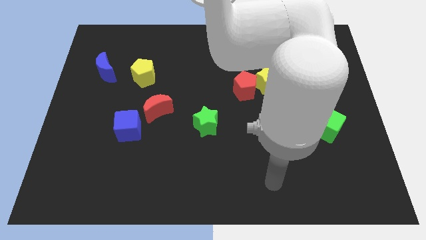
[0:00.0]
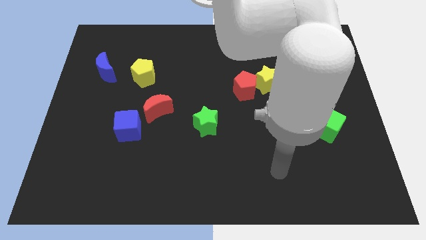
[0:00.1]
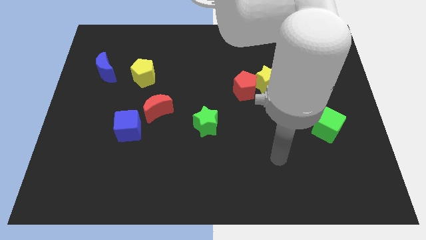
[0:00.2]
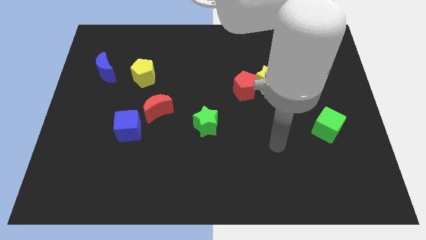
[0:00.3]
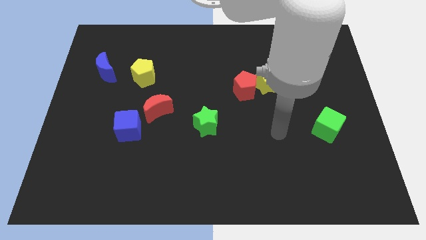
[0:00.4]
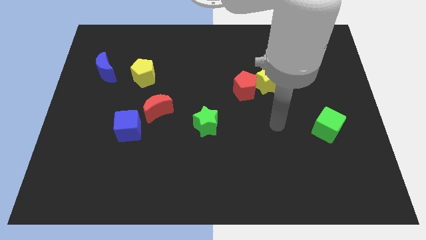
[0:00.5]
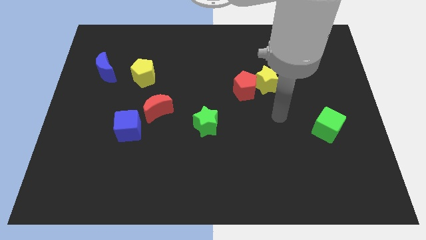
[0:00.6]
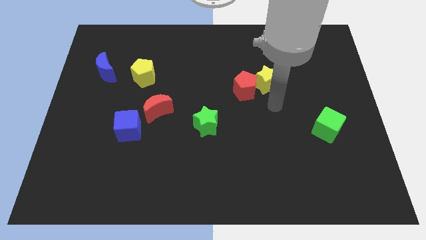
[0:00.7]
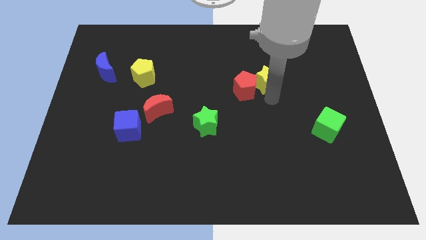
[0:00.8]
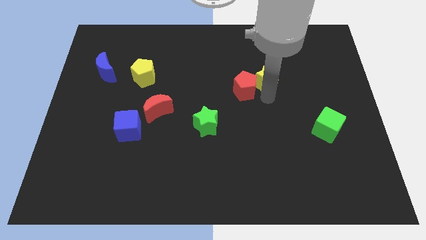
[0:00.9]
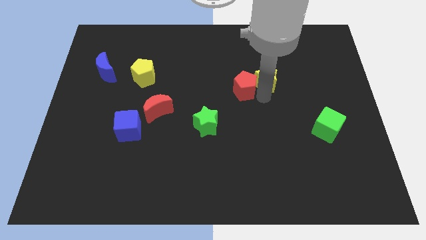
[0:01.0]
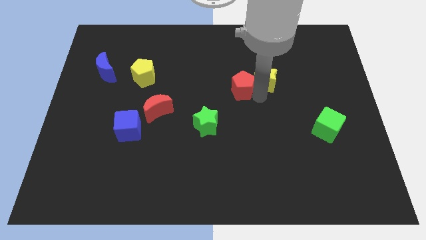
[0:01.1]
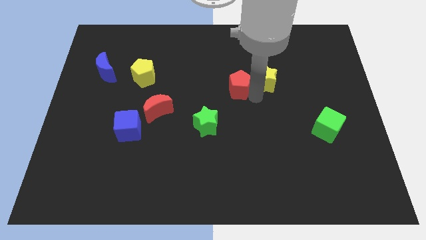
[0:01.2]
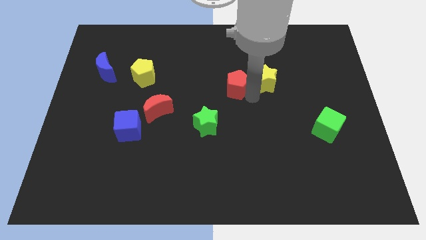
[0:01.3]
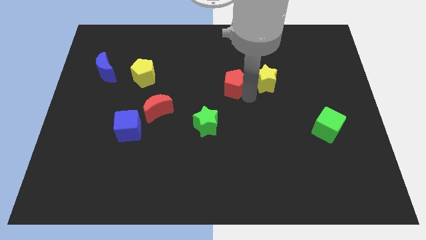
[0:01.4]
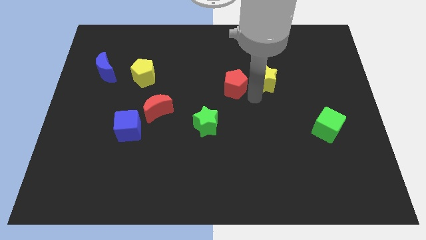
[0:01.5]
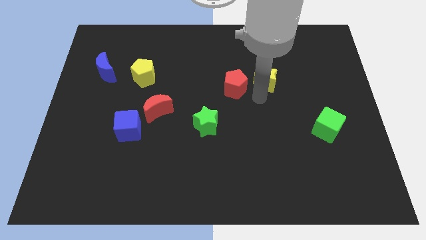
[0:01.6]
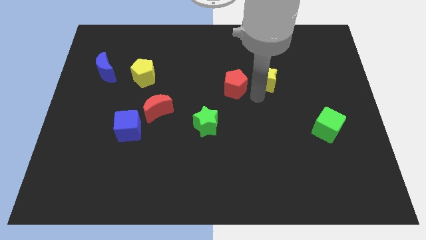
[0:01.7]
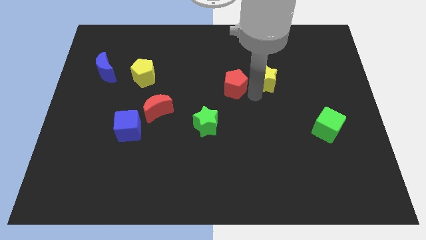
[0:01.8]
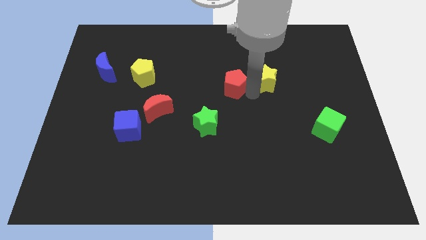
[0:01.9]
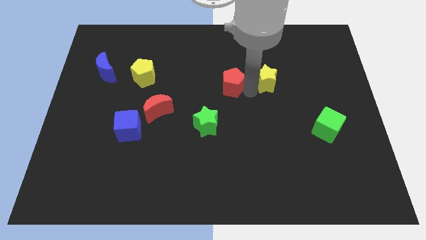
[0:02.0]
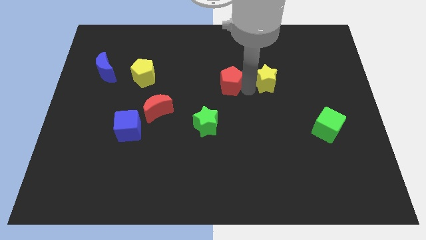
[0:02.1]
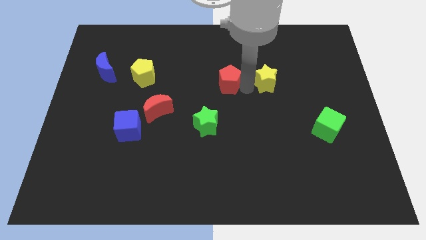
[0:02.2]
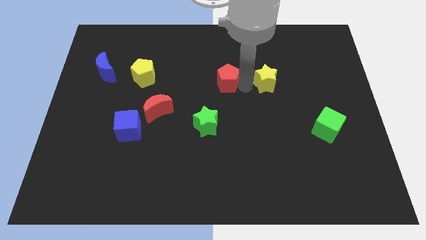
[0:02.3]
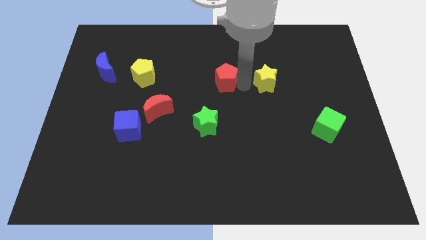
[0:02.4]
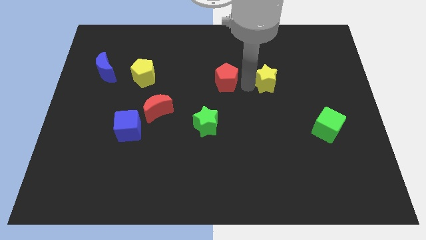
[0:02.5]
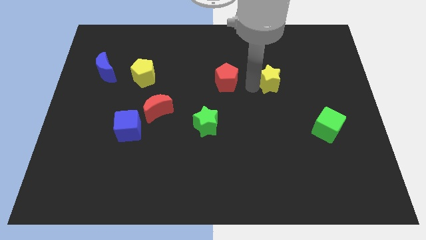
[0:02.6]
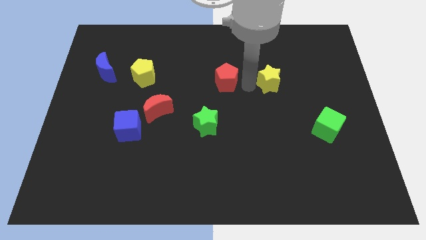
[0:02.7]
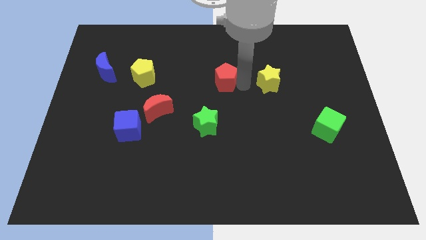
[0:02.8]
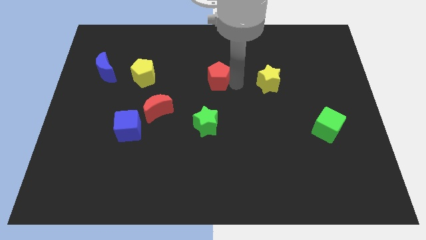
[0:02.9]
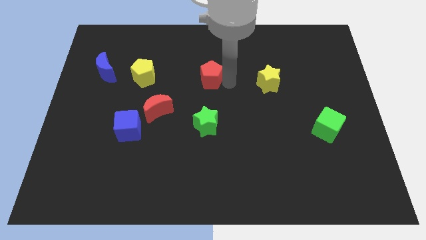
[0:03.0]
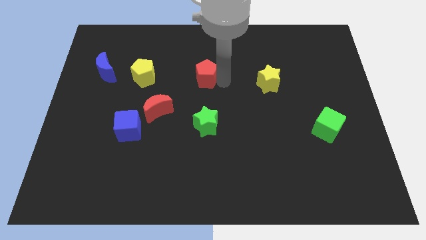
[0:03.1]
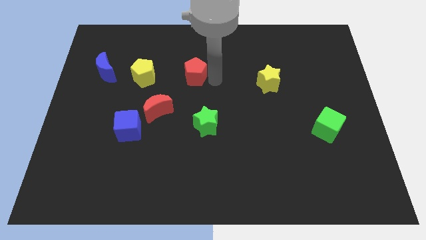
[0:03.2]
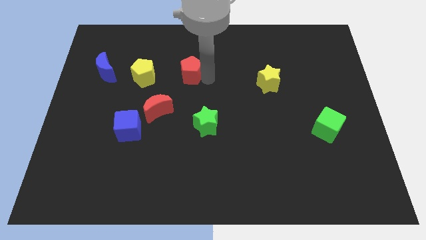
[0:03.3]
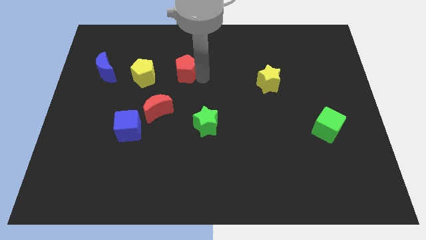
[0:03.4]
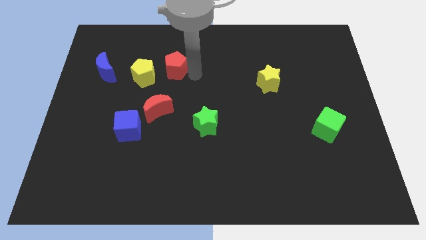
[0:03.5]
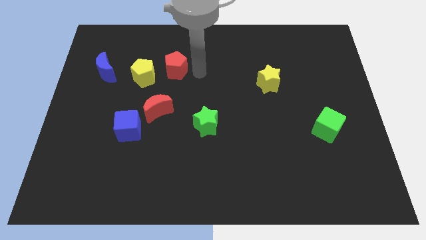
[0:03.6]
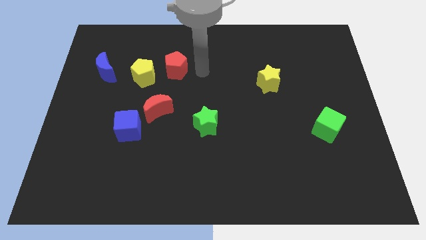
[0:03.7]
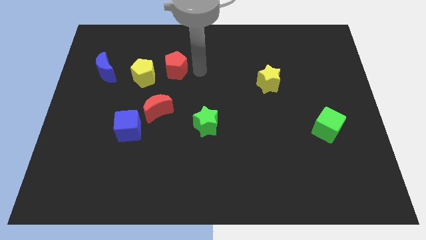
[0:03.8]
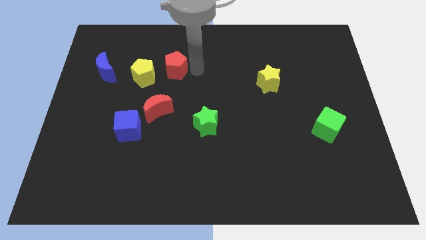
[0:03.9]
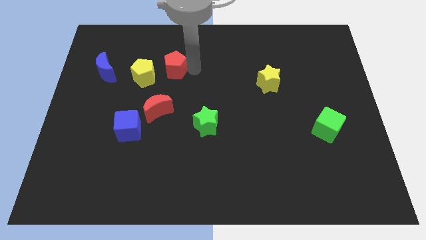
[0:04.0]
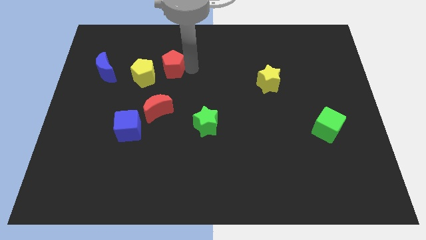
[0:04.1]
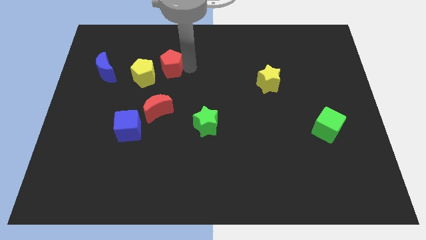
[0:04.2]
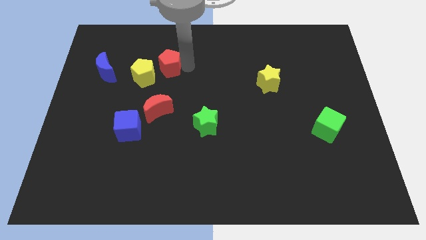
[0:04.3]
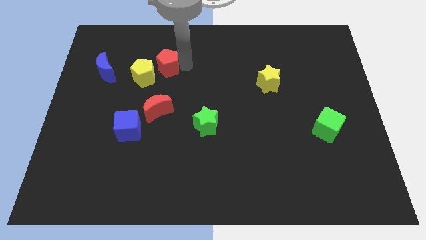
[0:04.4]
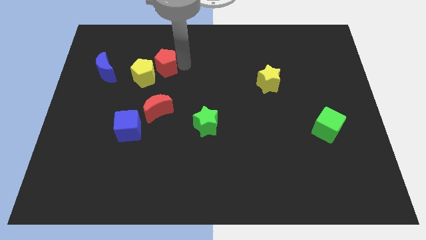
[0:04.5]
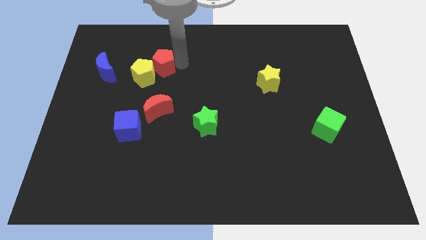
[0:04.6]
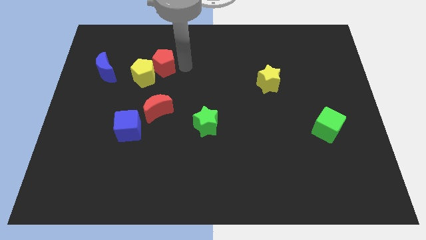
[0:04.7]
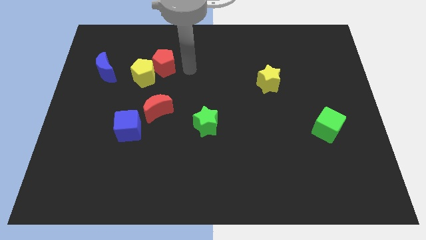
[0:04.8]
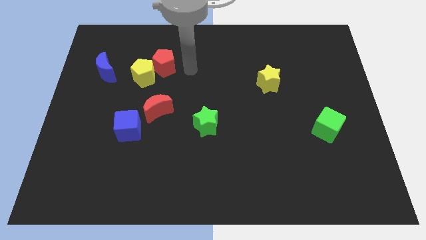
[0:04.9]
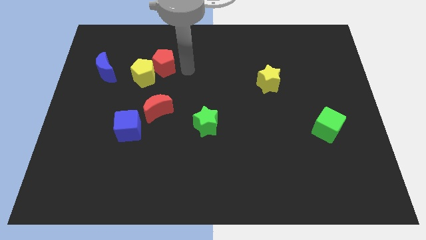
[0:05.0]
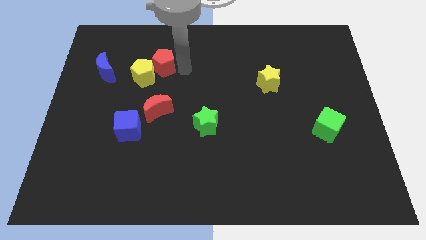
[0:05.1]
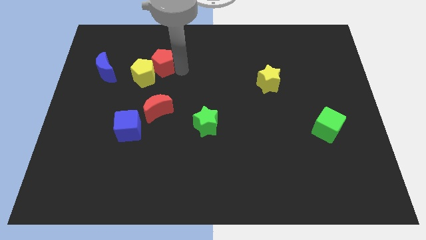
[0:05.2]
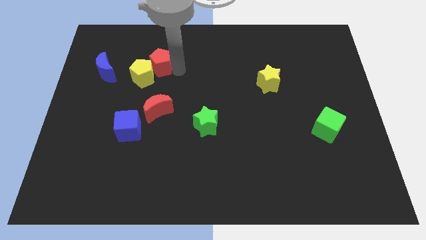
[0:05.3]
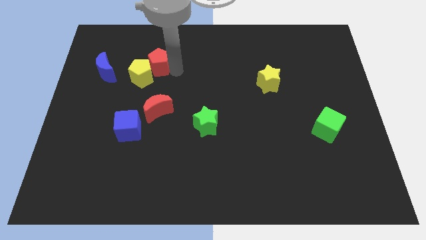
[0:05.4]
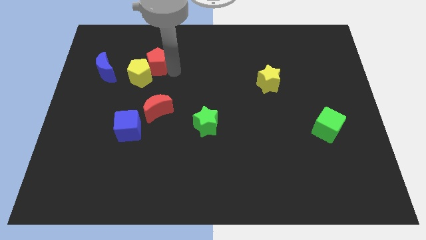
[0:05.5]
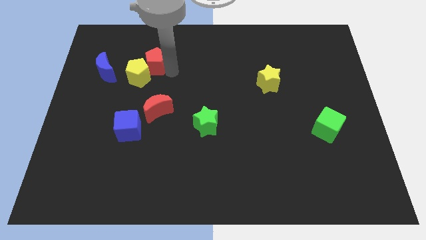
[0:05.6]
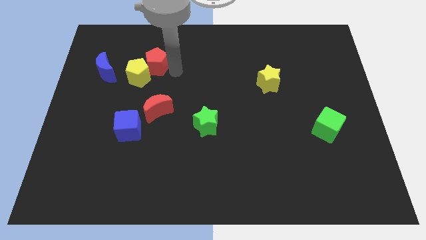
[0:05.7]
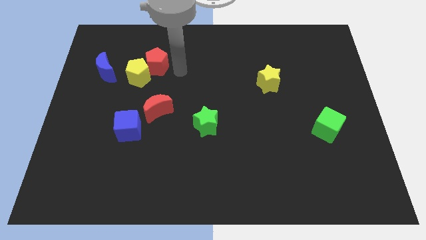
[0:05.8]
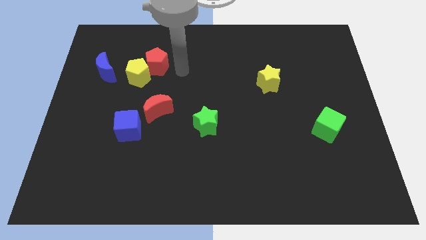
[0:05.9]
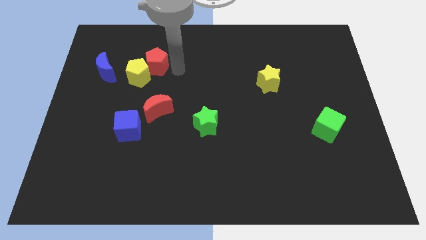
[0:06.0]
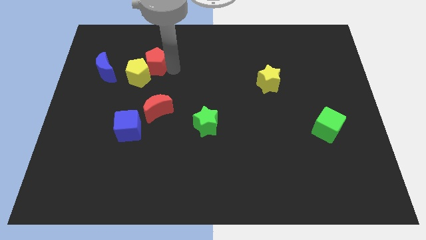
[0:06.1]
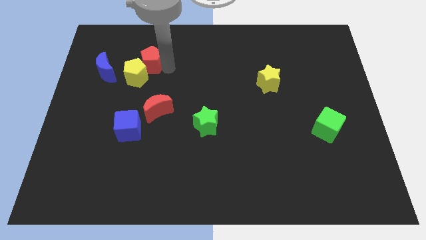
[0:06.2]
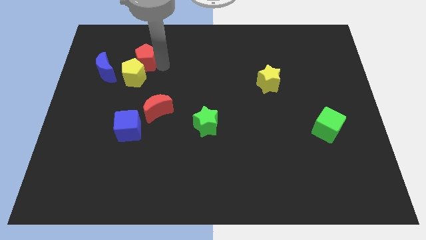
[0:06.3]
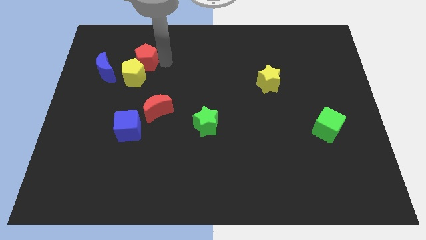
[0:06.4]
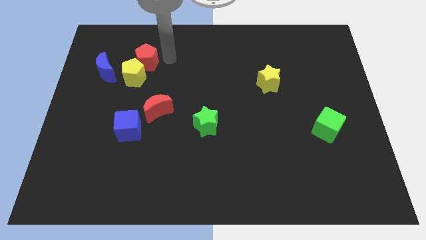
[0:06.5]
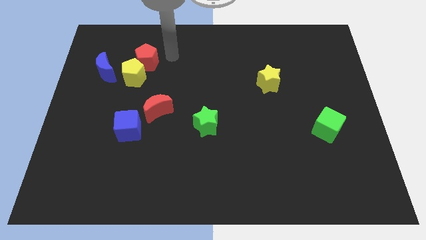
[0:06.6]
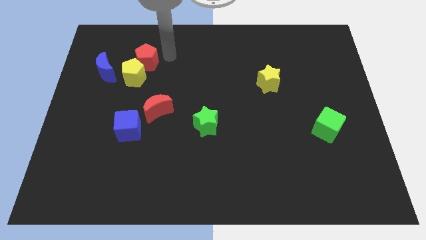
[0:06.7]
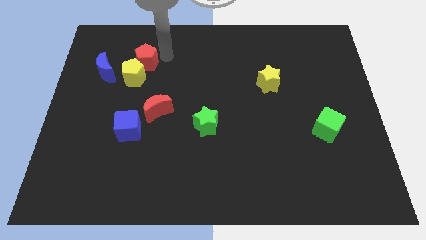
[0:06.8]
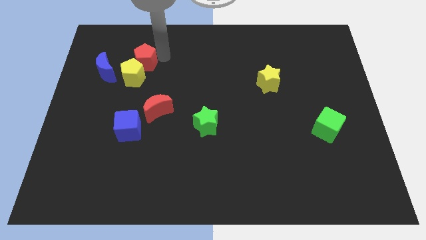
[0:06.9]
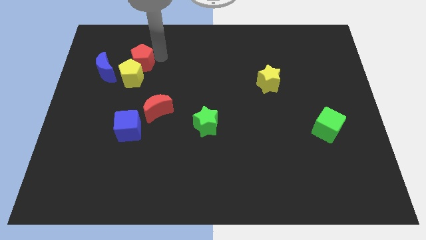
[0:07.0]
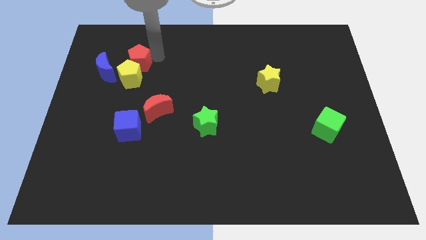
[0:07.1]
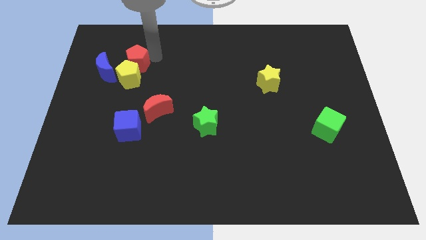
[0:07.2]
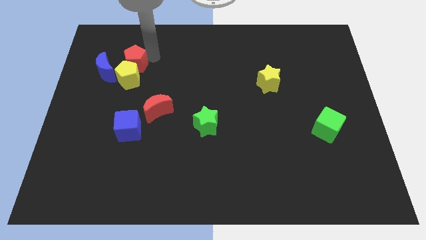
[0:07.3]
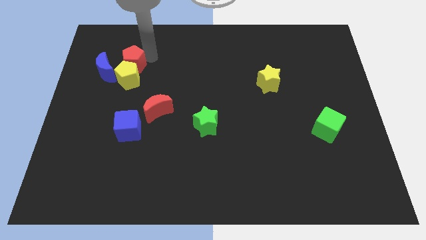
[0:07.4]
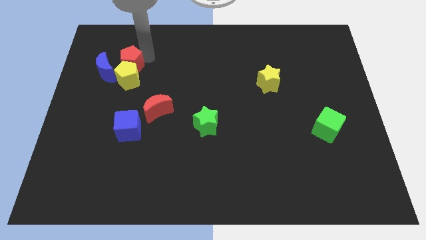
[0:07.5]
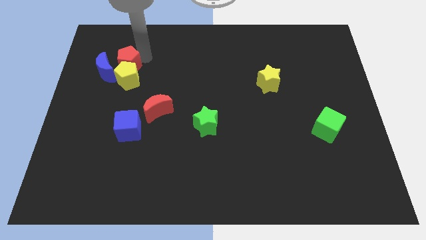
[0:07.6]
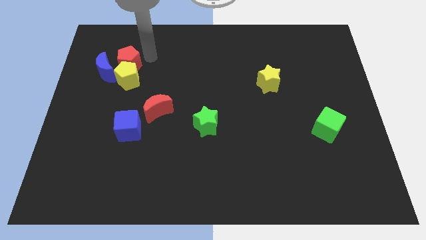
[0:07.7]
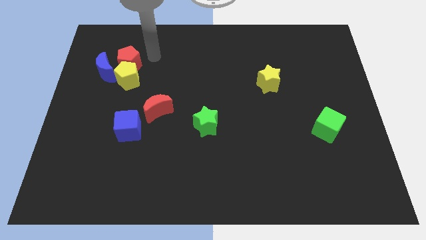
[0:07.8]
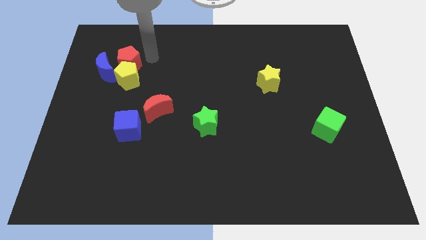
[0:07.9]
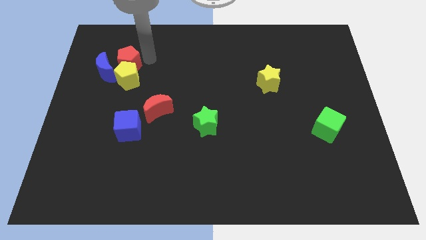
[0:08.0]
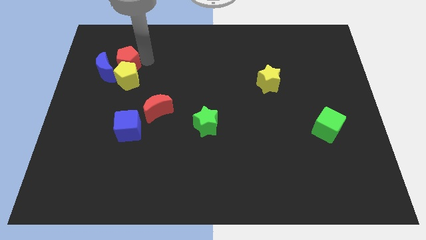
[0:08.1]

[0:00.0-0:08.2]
push the red pentagon towards the blue moon
